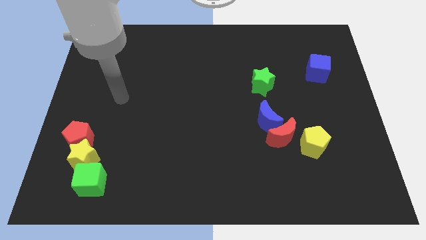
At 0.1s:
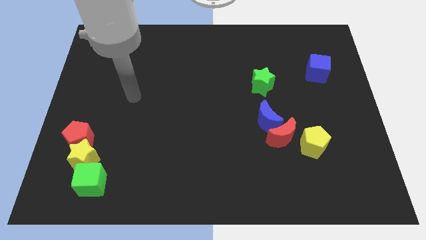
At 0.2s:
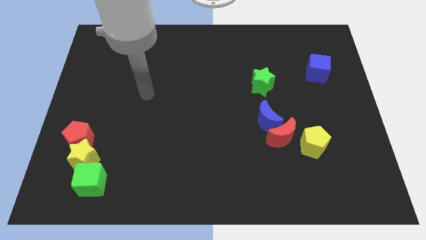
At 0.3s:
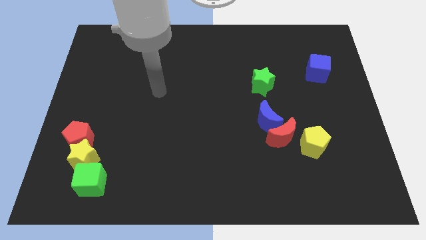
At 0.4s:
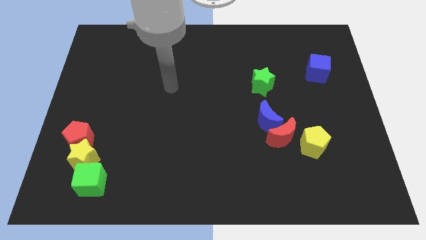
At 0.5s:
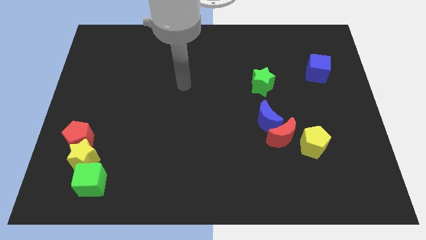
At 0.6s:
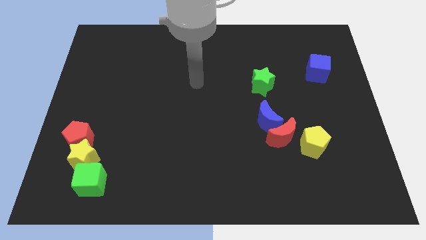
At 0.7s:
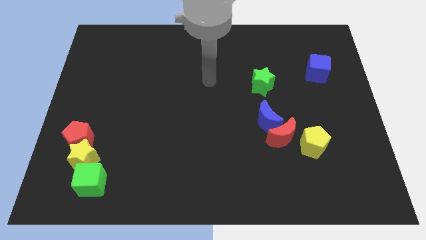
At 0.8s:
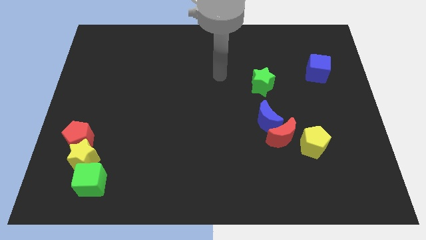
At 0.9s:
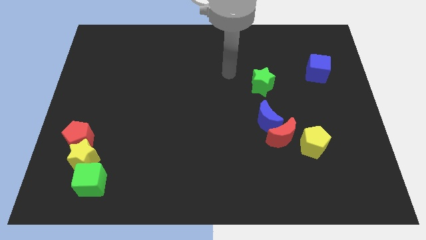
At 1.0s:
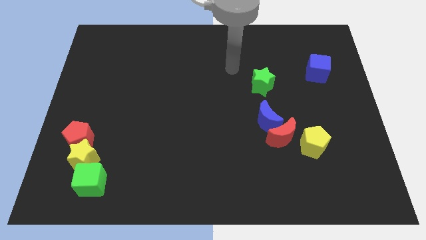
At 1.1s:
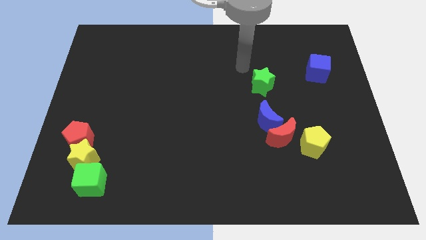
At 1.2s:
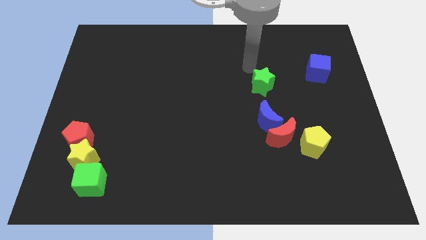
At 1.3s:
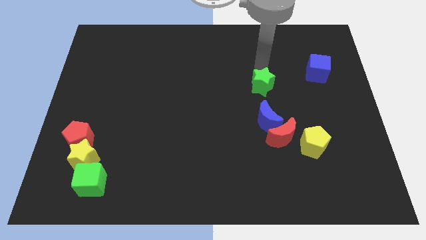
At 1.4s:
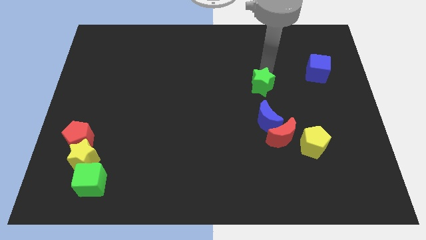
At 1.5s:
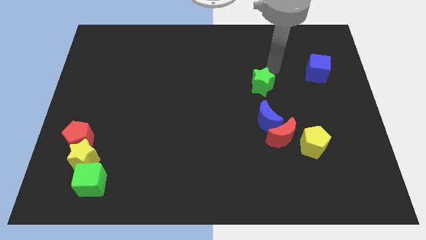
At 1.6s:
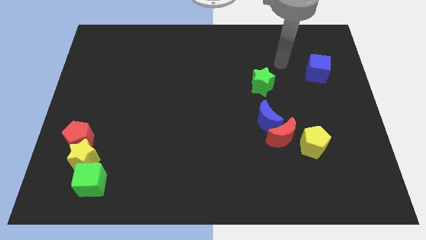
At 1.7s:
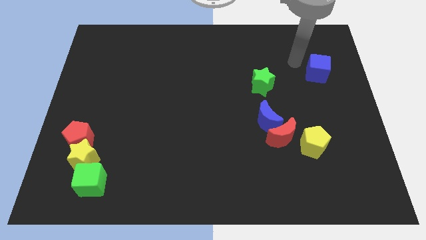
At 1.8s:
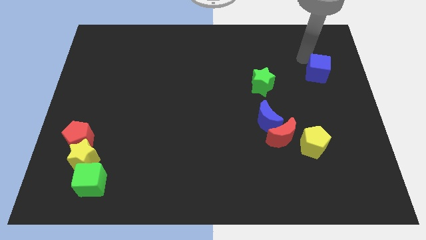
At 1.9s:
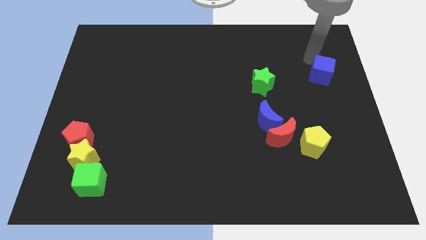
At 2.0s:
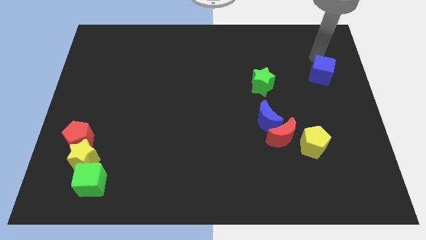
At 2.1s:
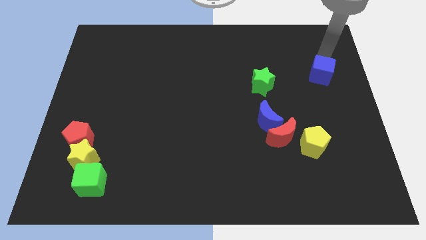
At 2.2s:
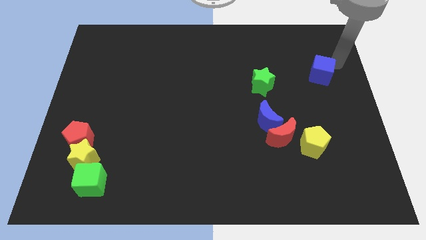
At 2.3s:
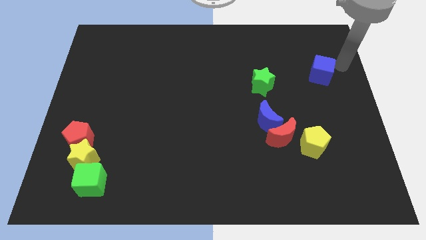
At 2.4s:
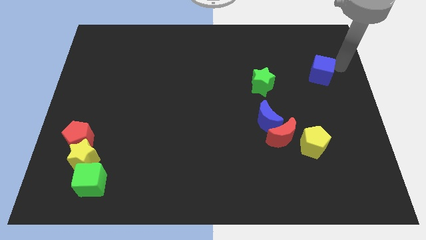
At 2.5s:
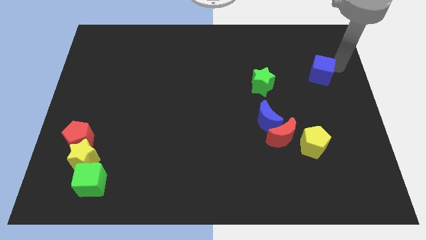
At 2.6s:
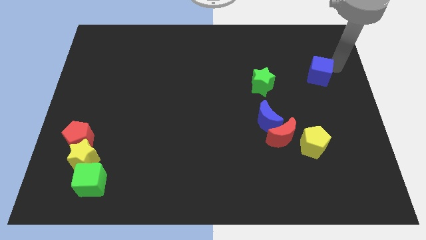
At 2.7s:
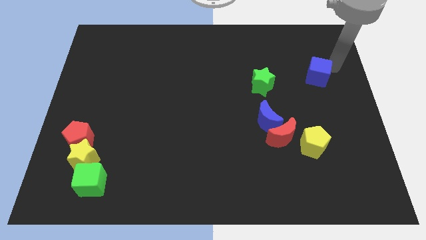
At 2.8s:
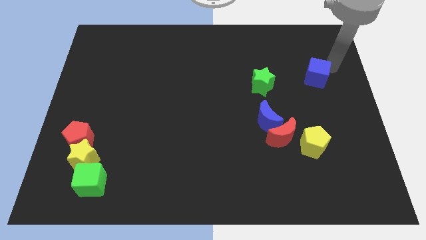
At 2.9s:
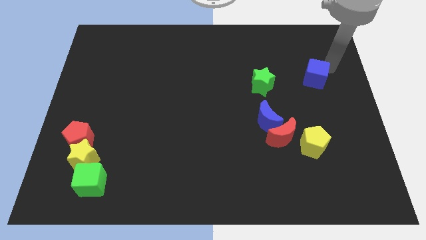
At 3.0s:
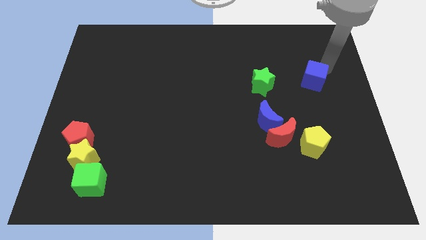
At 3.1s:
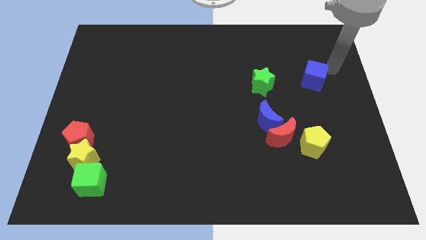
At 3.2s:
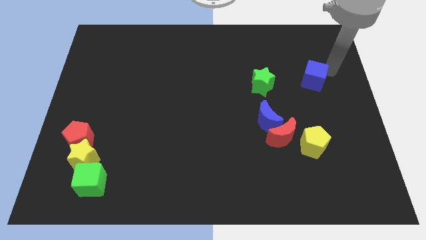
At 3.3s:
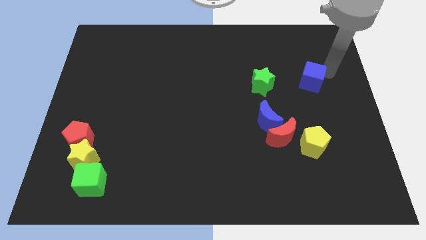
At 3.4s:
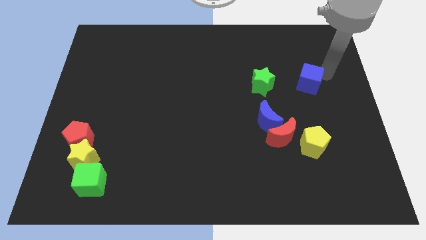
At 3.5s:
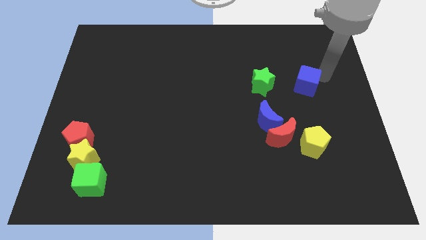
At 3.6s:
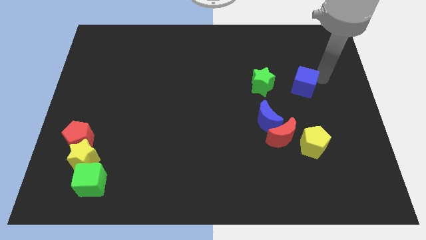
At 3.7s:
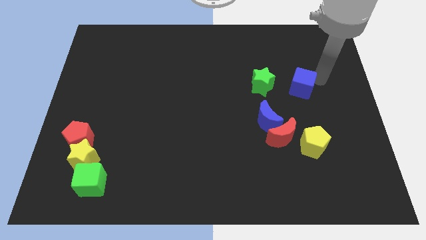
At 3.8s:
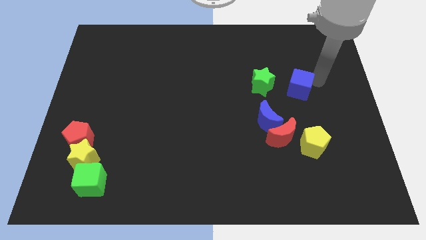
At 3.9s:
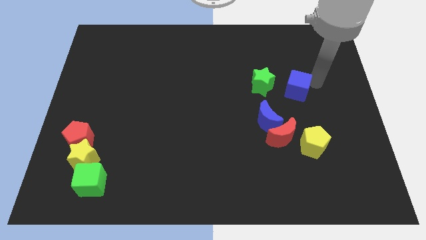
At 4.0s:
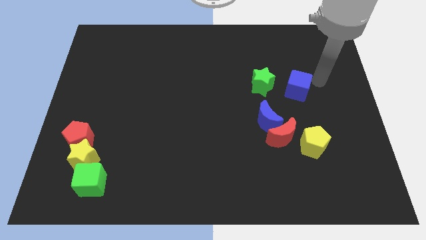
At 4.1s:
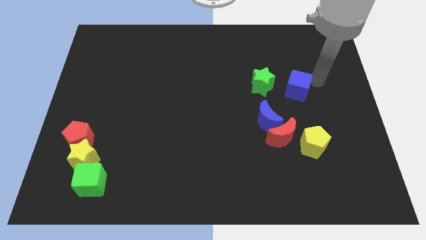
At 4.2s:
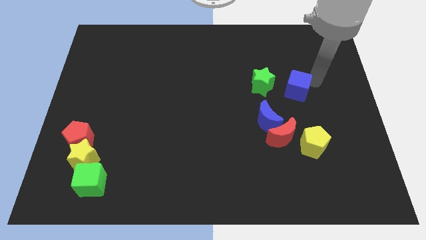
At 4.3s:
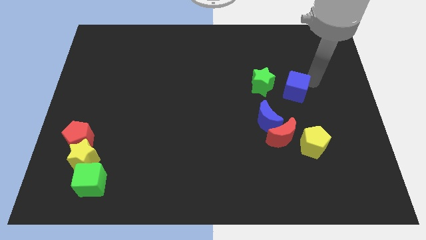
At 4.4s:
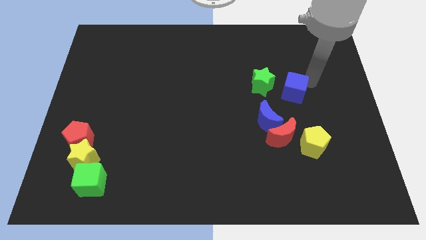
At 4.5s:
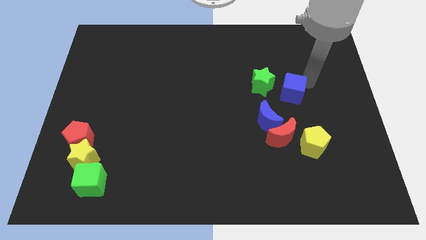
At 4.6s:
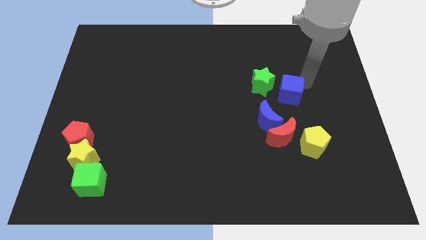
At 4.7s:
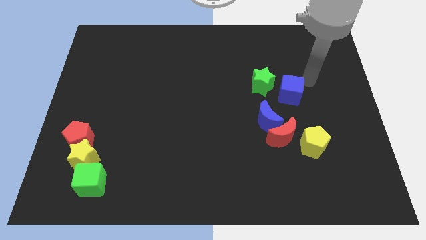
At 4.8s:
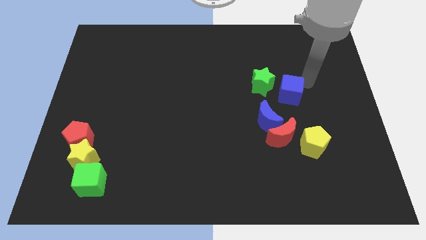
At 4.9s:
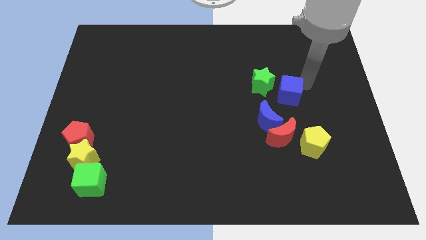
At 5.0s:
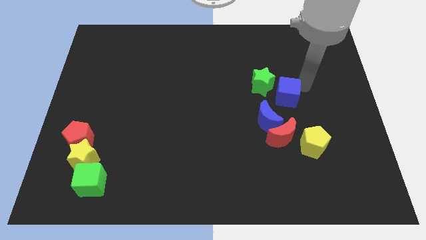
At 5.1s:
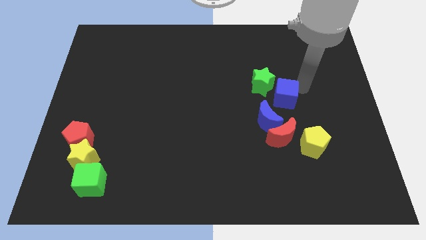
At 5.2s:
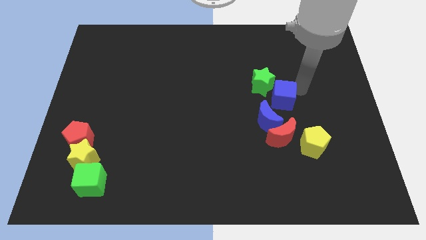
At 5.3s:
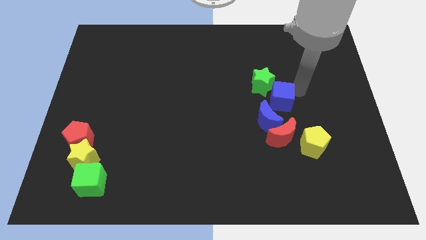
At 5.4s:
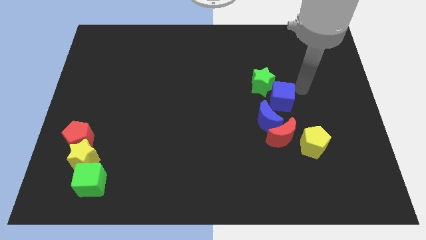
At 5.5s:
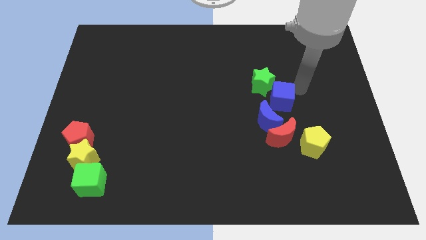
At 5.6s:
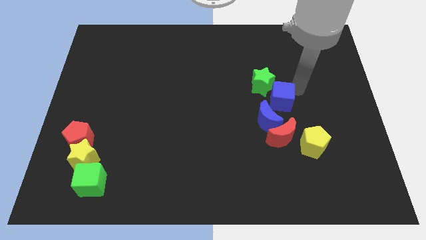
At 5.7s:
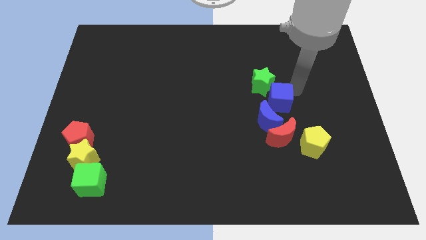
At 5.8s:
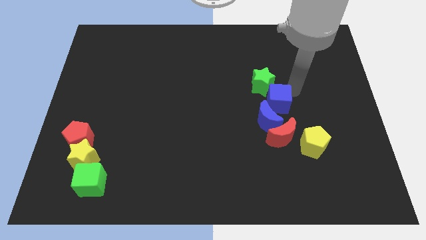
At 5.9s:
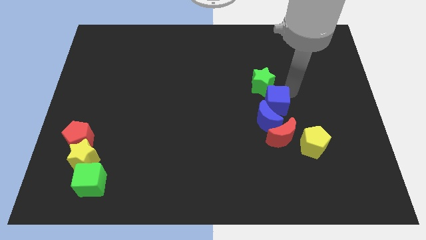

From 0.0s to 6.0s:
slide the blue cube next to the blue moon

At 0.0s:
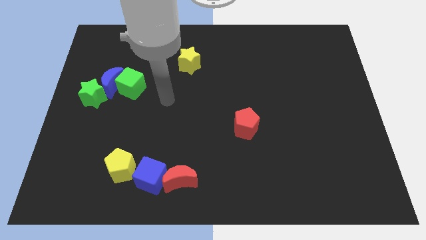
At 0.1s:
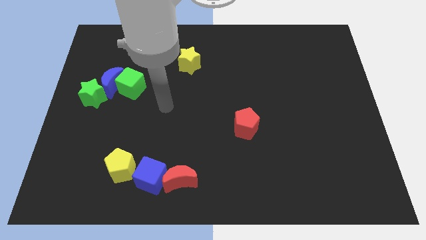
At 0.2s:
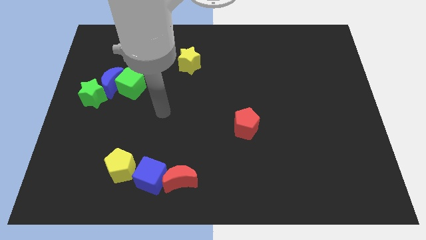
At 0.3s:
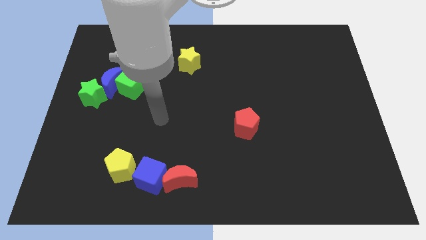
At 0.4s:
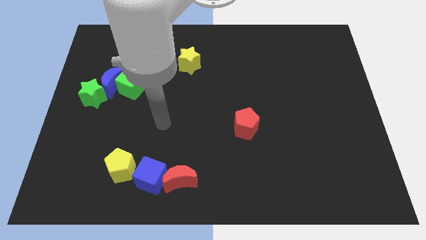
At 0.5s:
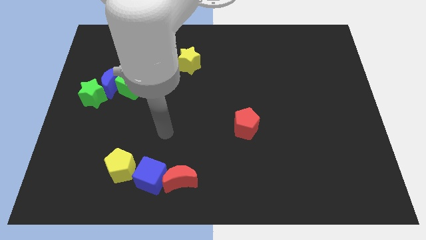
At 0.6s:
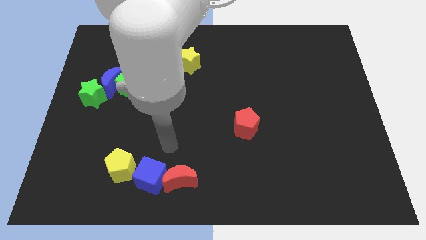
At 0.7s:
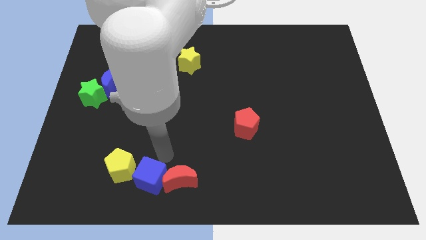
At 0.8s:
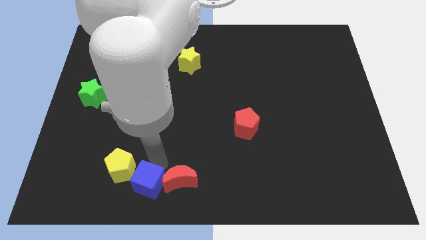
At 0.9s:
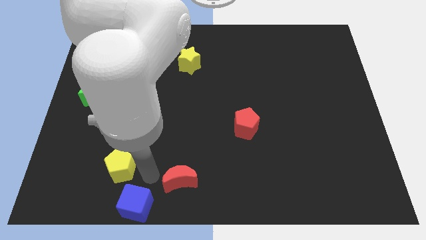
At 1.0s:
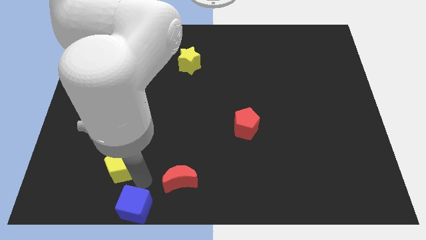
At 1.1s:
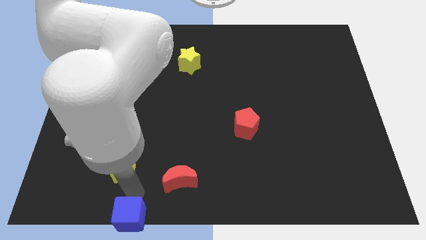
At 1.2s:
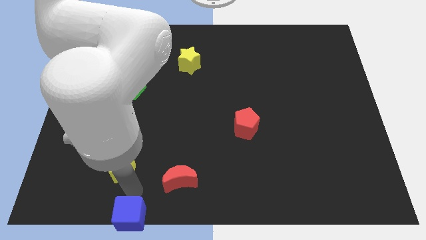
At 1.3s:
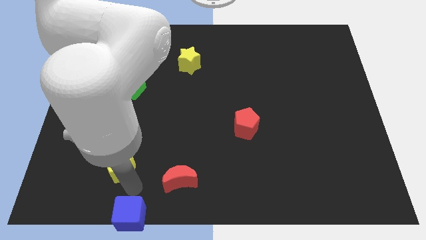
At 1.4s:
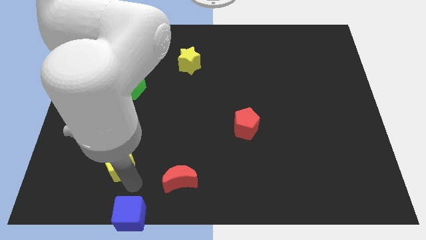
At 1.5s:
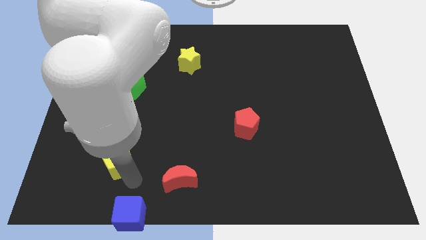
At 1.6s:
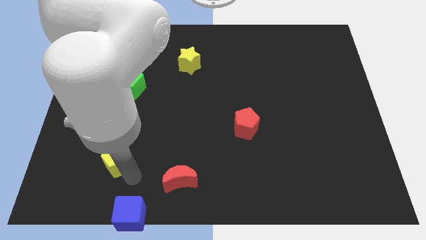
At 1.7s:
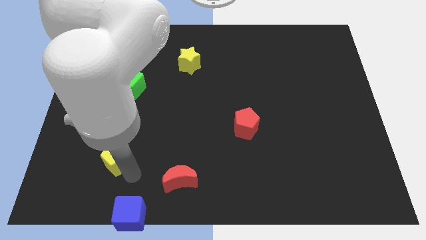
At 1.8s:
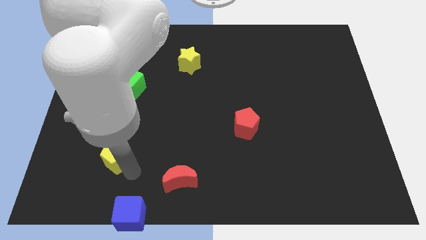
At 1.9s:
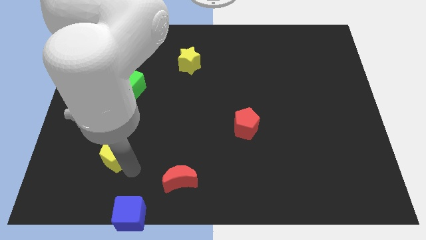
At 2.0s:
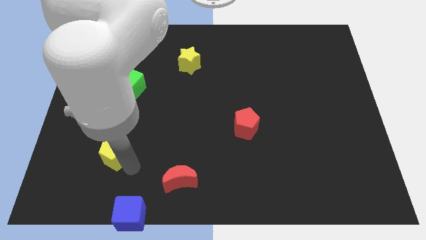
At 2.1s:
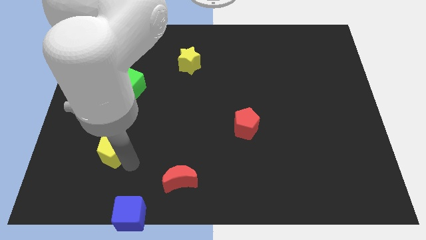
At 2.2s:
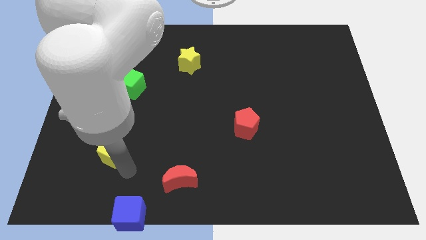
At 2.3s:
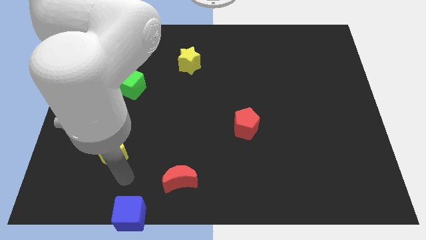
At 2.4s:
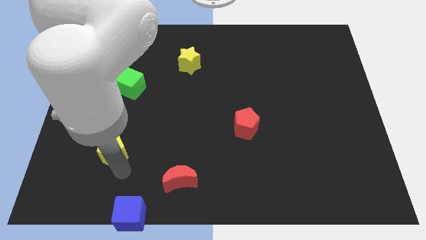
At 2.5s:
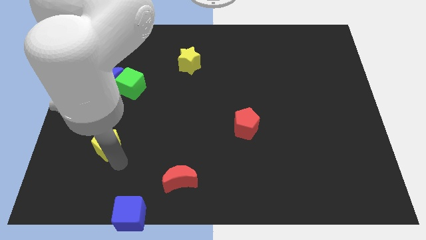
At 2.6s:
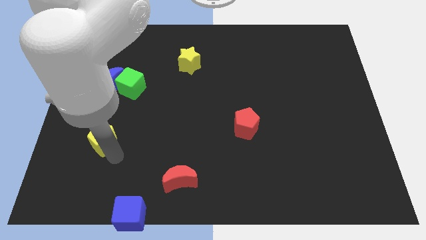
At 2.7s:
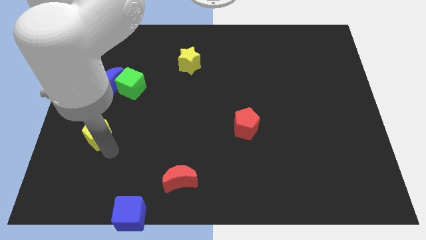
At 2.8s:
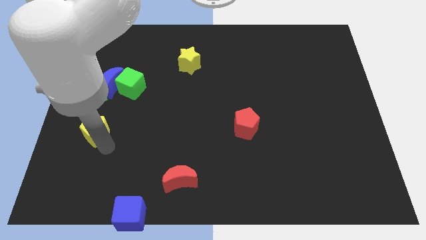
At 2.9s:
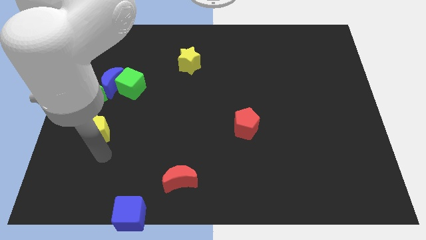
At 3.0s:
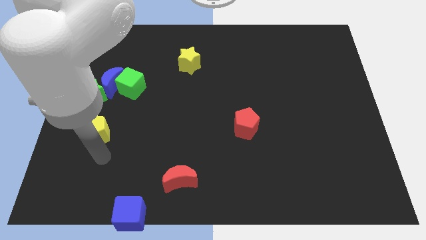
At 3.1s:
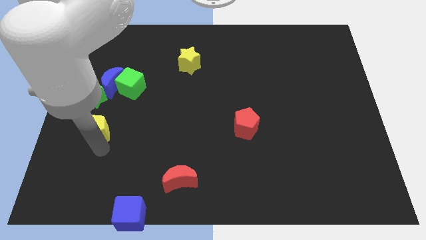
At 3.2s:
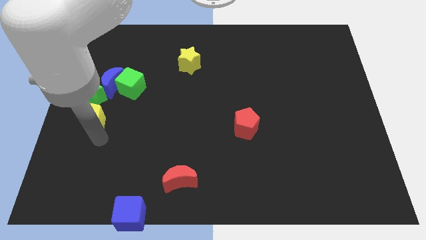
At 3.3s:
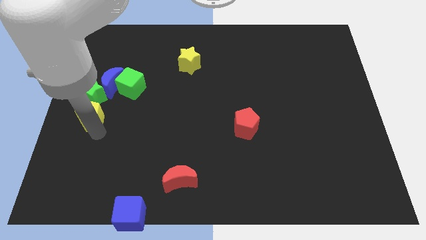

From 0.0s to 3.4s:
move the yellow pentagon close to the green star
